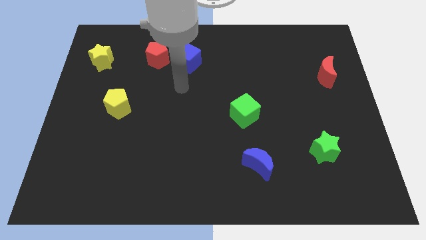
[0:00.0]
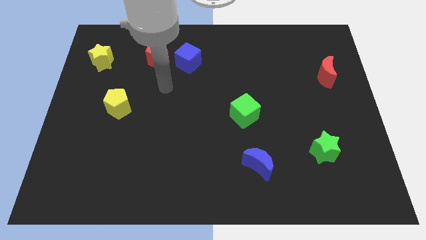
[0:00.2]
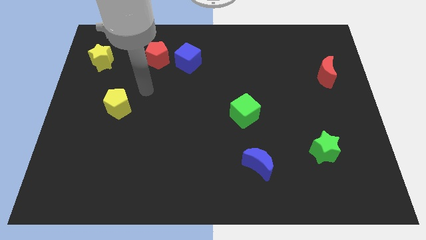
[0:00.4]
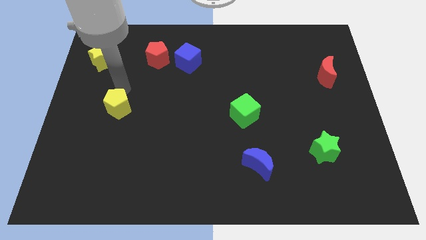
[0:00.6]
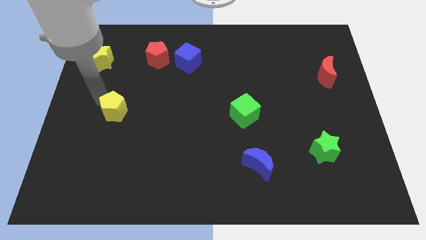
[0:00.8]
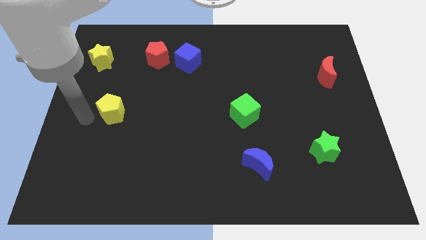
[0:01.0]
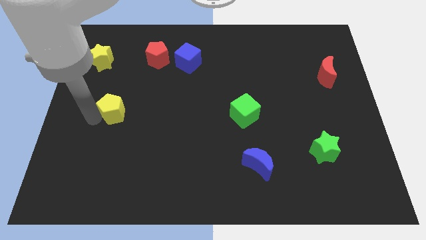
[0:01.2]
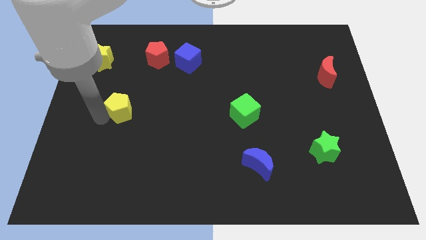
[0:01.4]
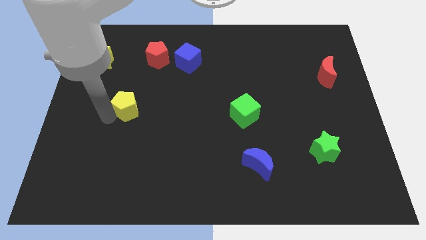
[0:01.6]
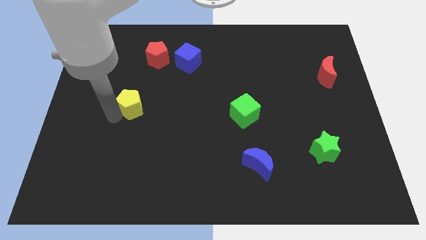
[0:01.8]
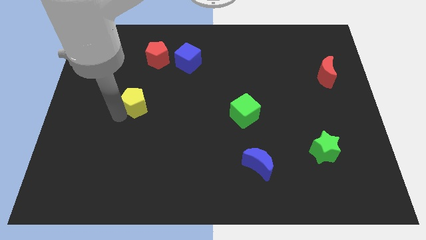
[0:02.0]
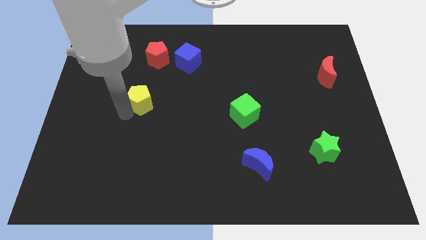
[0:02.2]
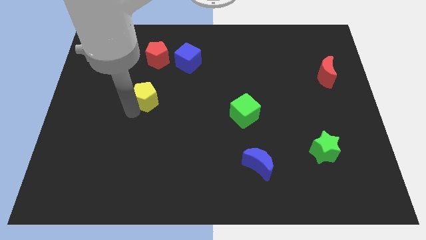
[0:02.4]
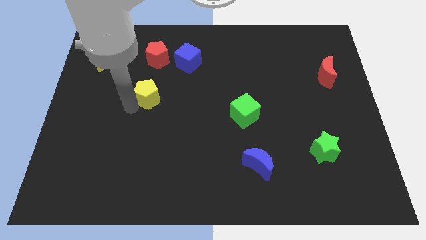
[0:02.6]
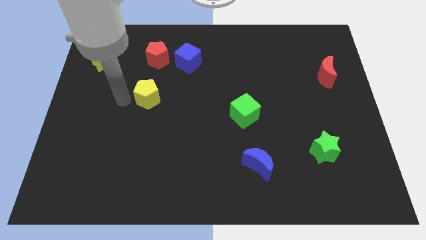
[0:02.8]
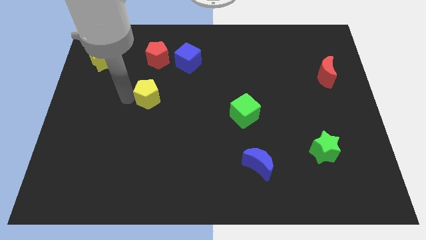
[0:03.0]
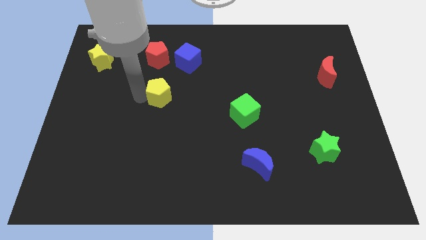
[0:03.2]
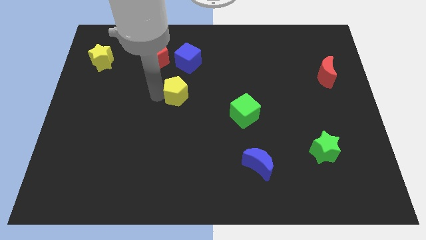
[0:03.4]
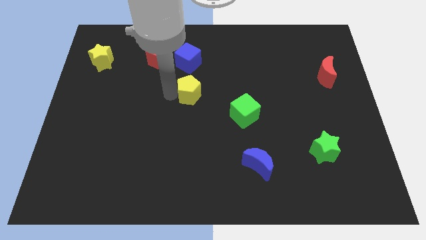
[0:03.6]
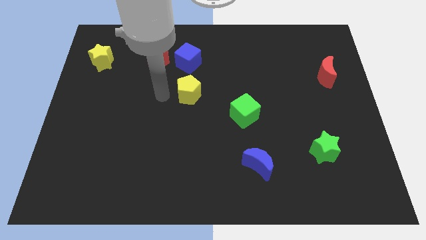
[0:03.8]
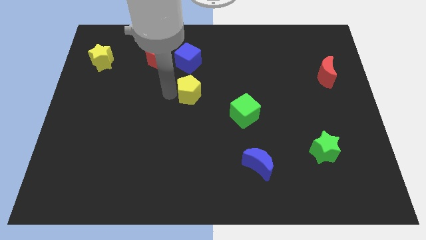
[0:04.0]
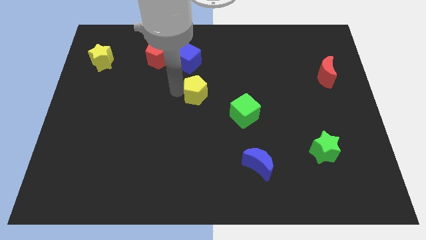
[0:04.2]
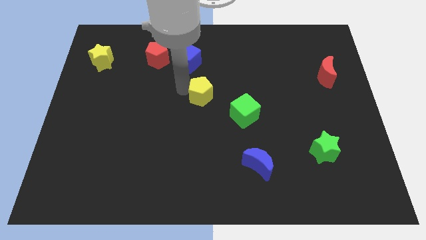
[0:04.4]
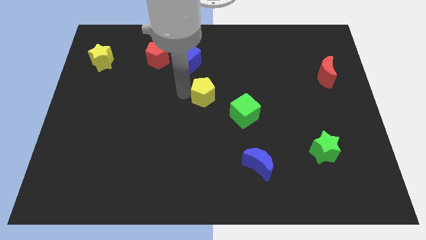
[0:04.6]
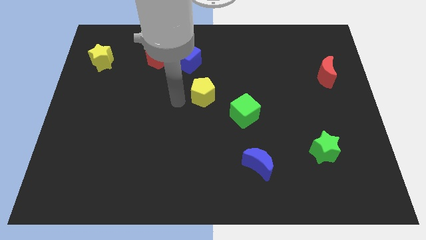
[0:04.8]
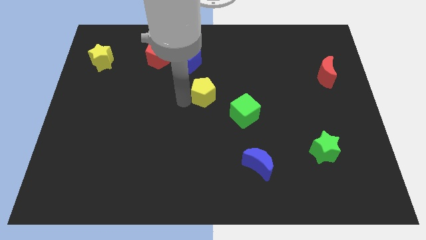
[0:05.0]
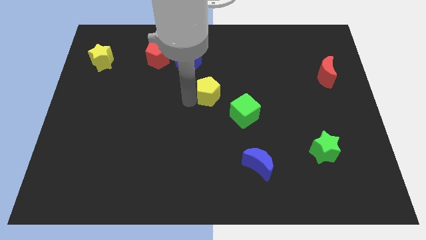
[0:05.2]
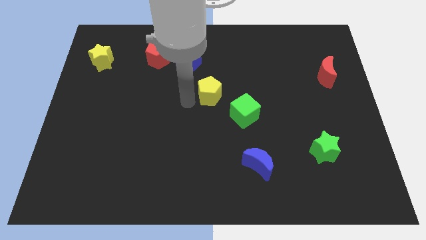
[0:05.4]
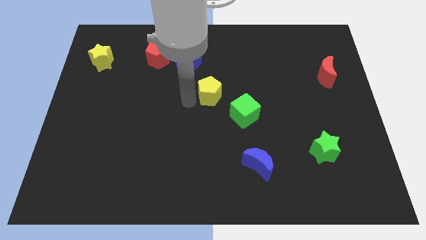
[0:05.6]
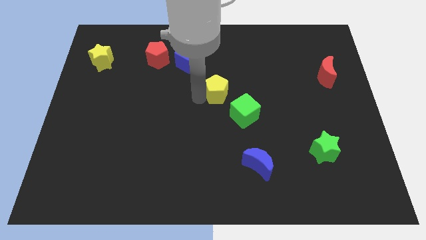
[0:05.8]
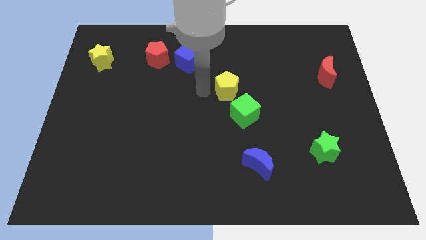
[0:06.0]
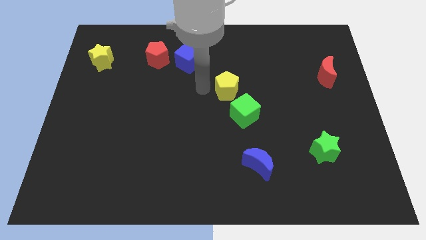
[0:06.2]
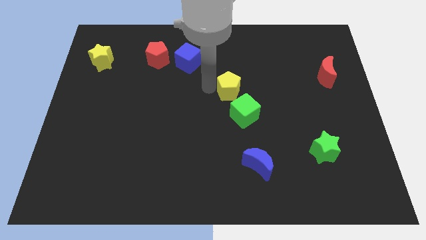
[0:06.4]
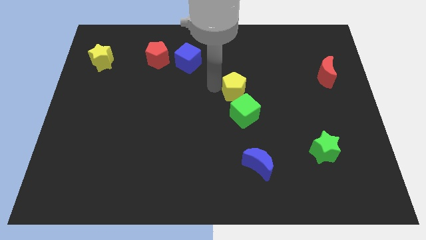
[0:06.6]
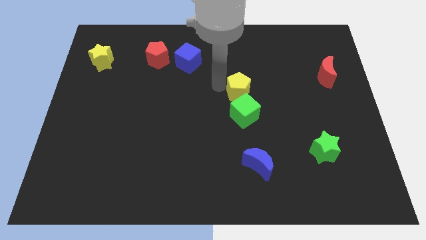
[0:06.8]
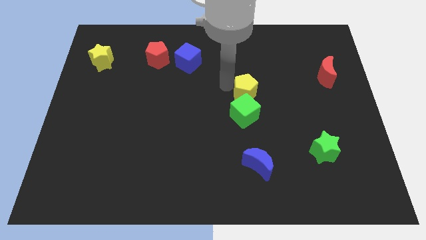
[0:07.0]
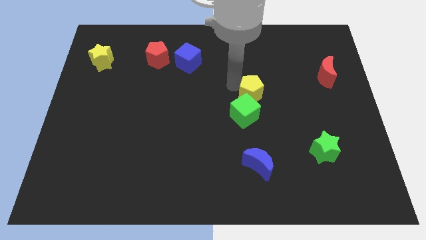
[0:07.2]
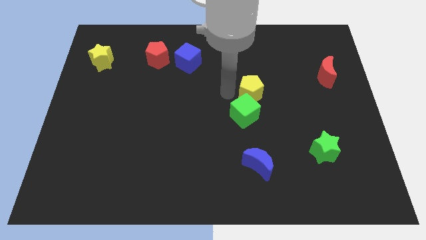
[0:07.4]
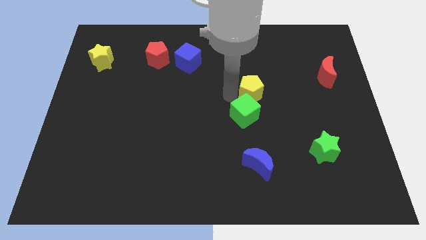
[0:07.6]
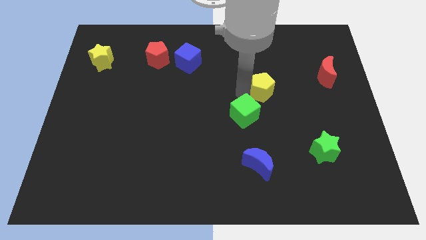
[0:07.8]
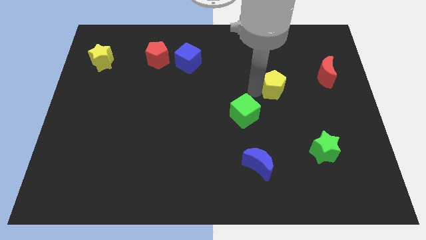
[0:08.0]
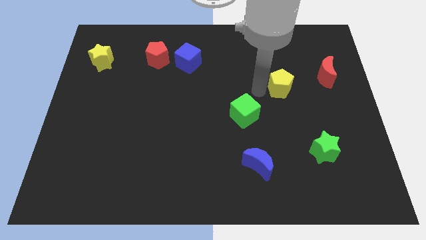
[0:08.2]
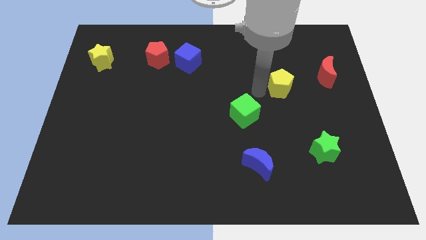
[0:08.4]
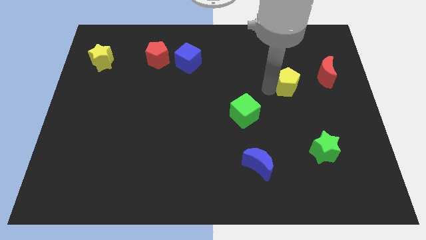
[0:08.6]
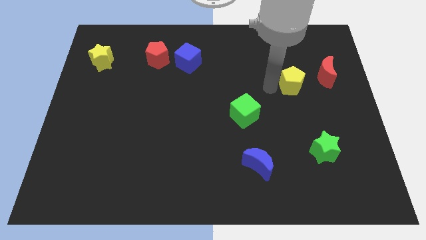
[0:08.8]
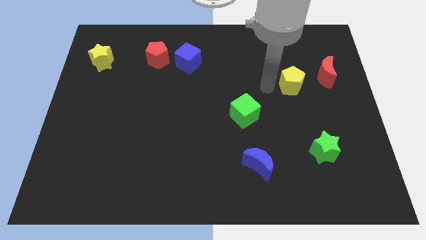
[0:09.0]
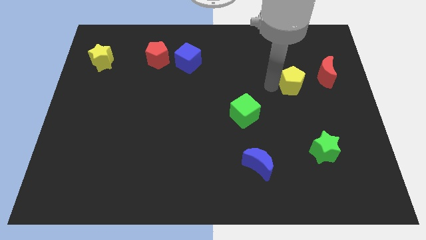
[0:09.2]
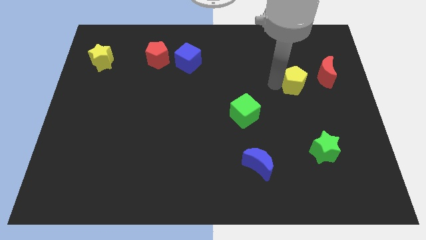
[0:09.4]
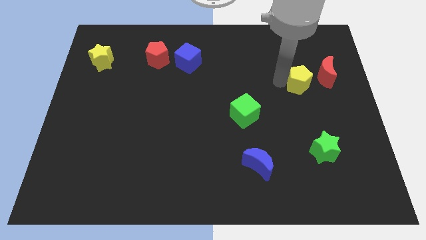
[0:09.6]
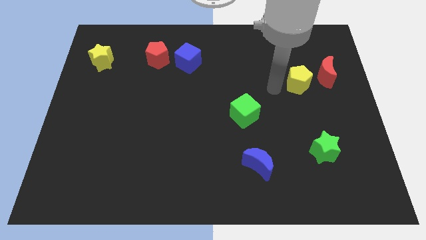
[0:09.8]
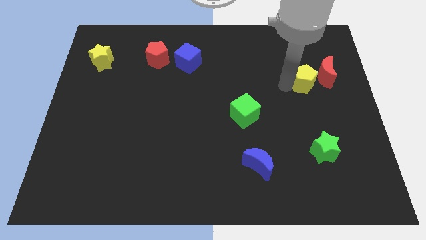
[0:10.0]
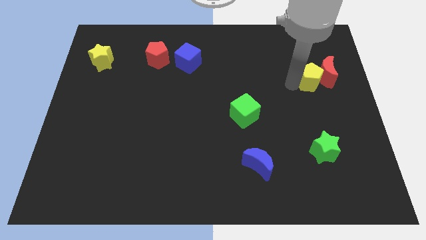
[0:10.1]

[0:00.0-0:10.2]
slide the yellow pentagon to the red moon

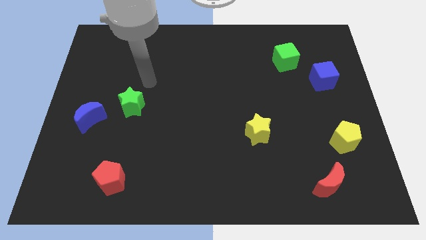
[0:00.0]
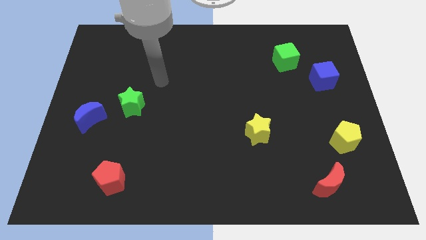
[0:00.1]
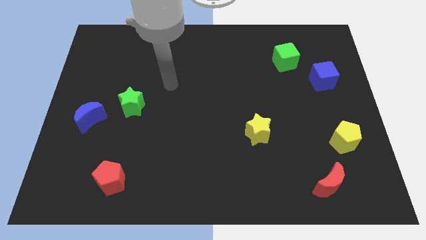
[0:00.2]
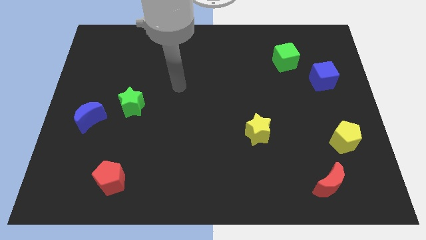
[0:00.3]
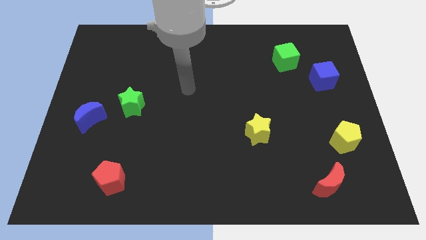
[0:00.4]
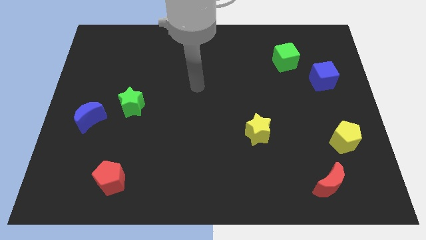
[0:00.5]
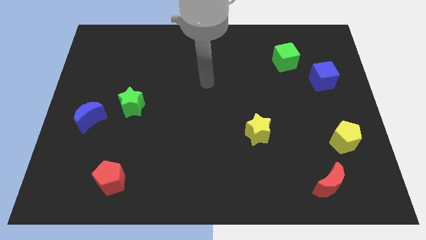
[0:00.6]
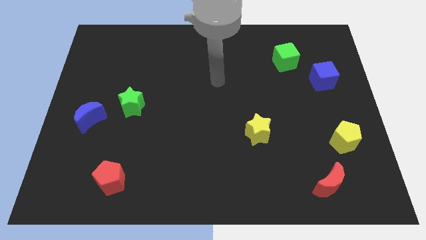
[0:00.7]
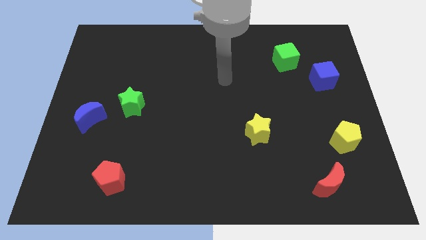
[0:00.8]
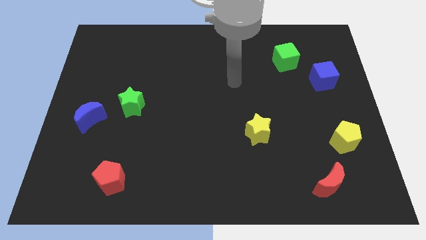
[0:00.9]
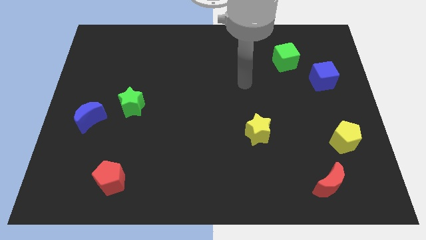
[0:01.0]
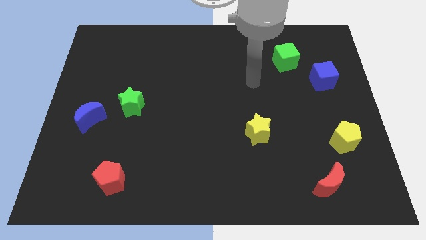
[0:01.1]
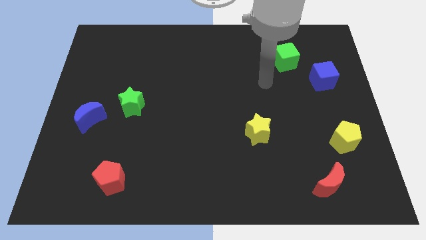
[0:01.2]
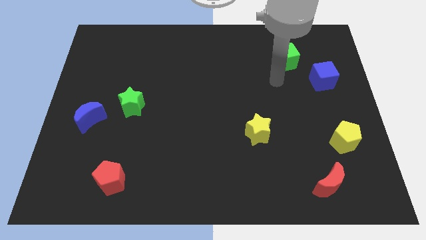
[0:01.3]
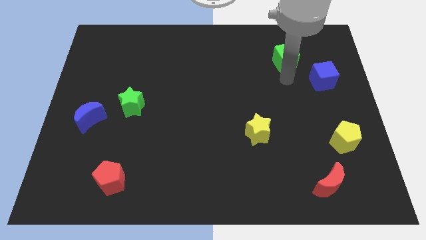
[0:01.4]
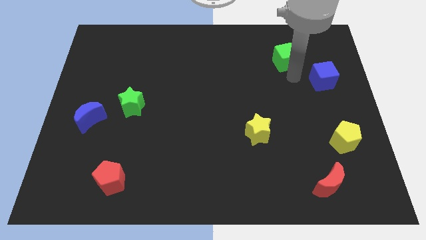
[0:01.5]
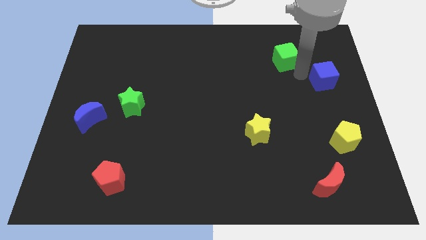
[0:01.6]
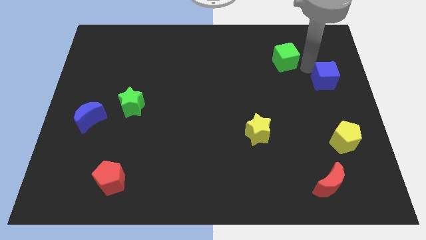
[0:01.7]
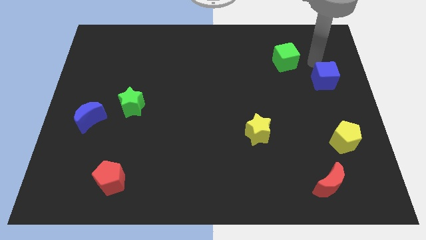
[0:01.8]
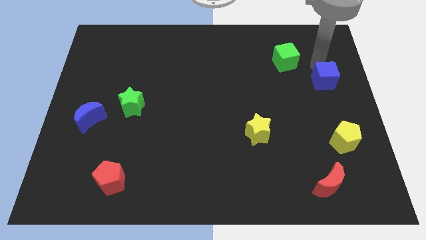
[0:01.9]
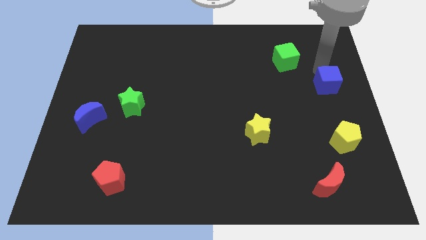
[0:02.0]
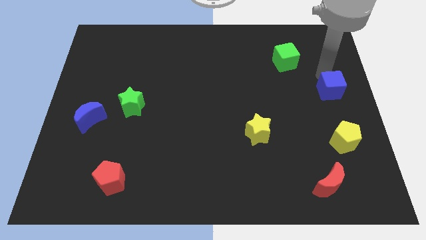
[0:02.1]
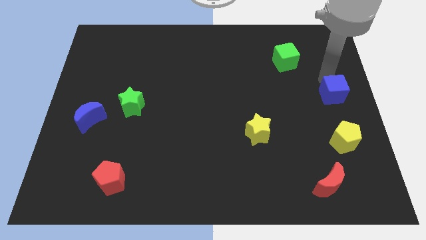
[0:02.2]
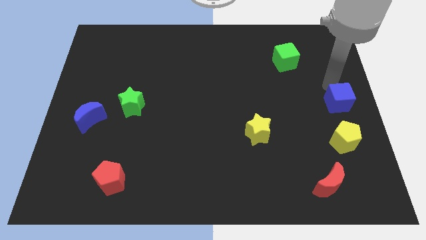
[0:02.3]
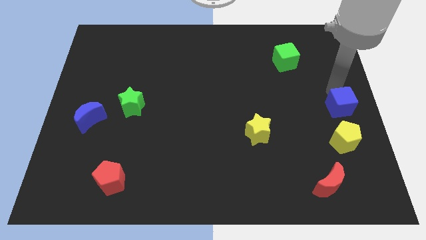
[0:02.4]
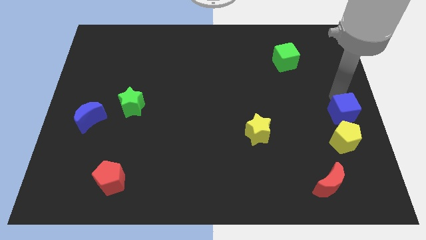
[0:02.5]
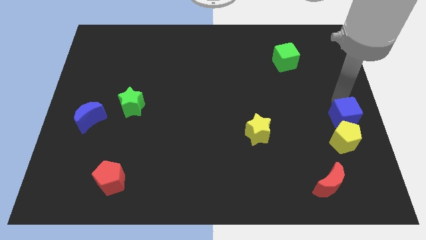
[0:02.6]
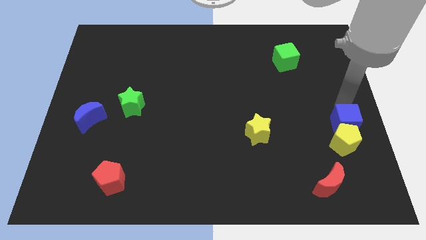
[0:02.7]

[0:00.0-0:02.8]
put the blue cube to the yellow pentagon
